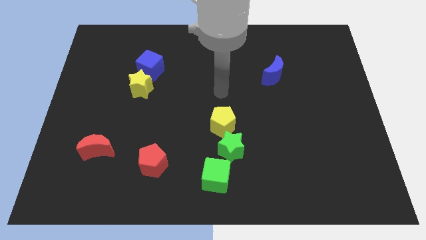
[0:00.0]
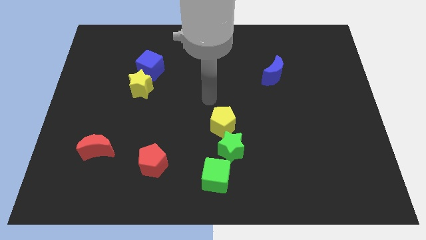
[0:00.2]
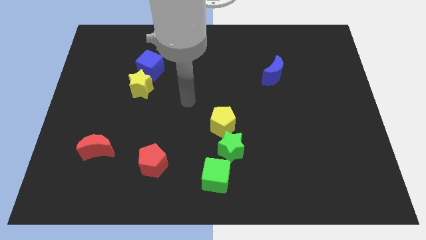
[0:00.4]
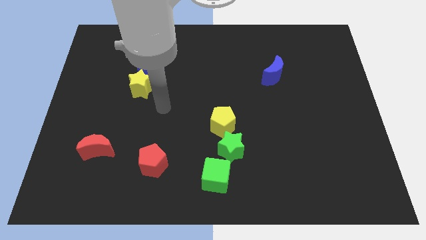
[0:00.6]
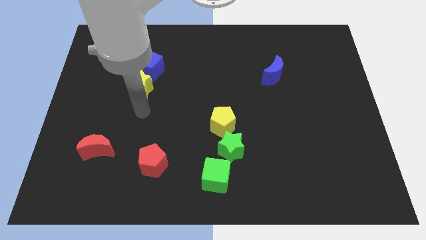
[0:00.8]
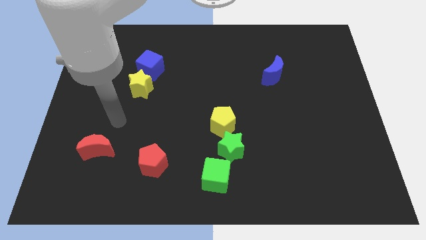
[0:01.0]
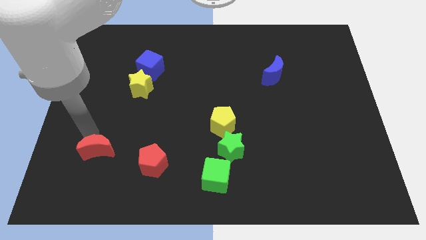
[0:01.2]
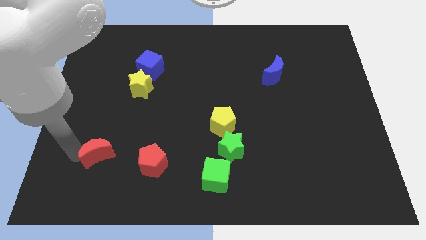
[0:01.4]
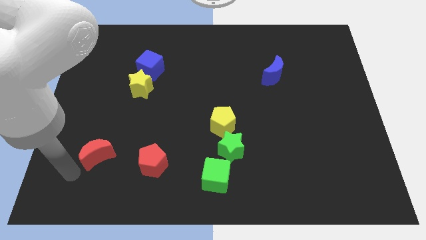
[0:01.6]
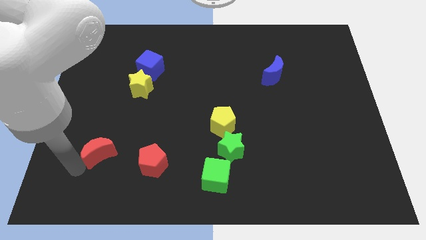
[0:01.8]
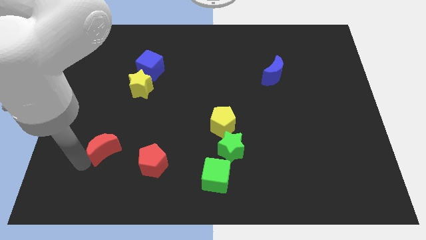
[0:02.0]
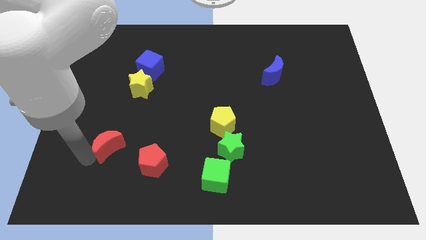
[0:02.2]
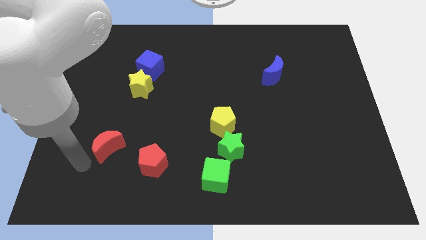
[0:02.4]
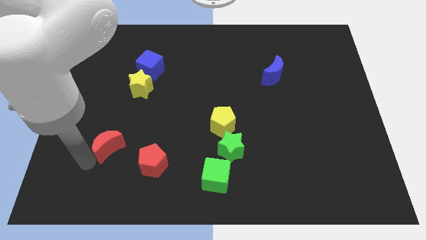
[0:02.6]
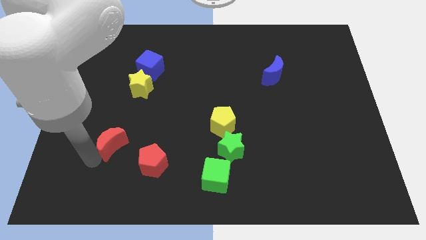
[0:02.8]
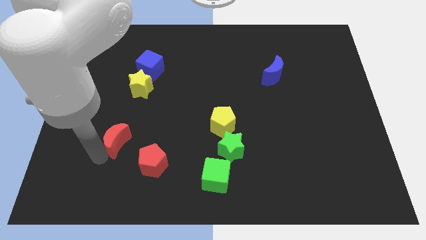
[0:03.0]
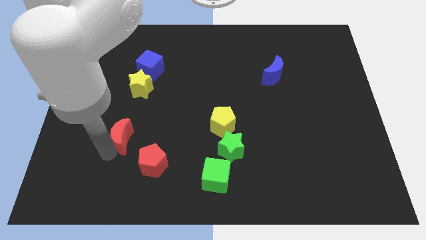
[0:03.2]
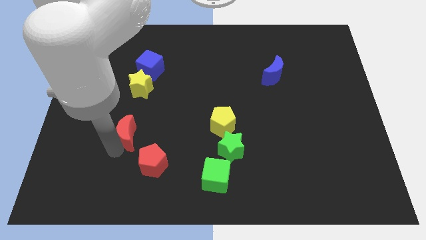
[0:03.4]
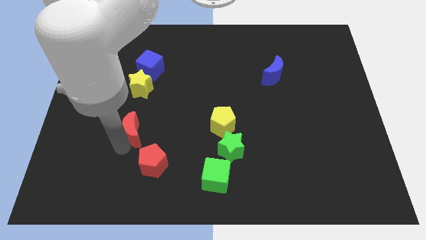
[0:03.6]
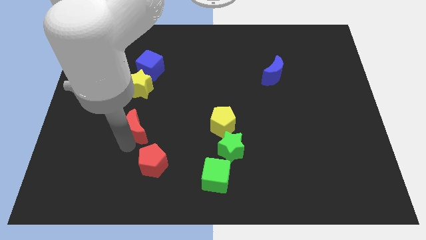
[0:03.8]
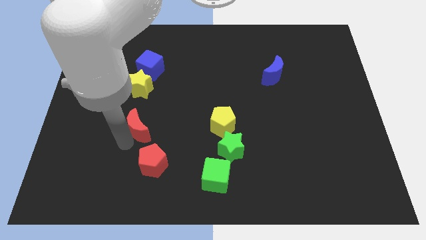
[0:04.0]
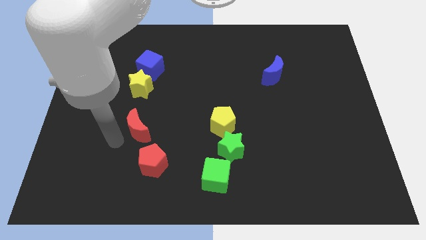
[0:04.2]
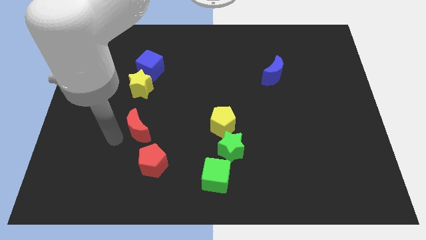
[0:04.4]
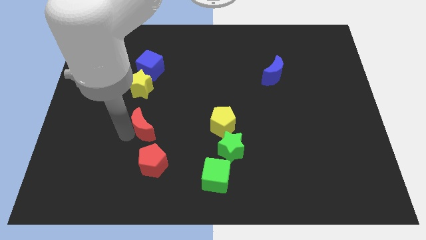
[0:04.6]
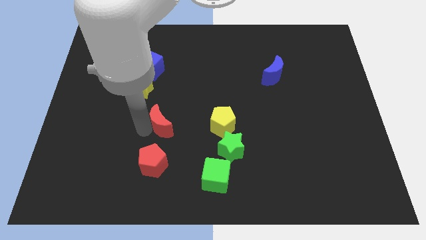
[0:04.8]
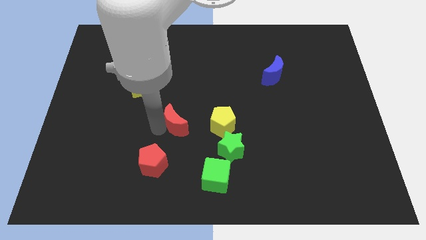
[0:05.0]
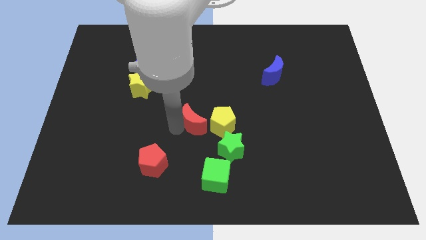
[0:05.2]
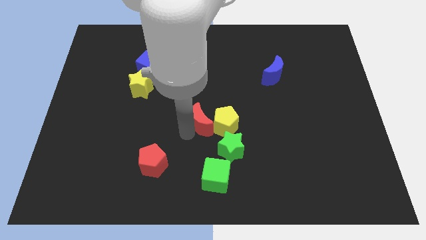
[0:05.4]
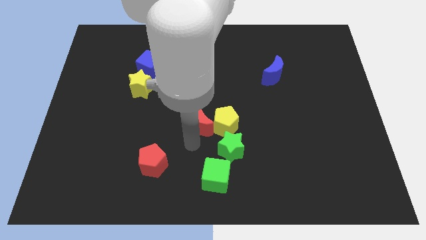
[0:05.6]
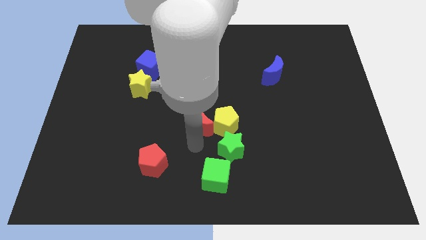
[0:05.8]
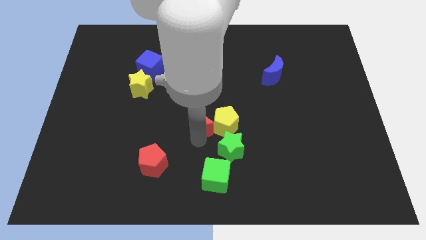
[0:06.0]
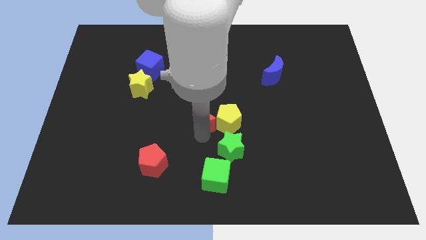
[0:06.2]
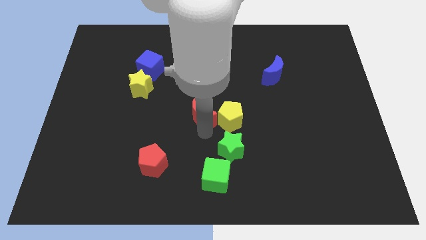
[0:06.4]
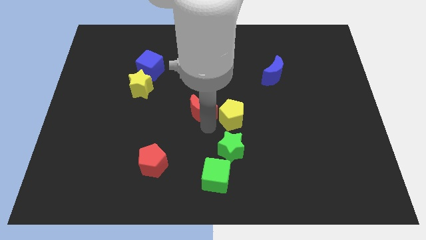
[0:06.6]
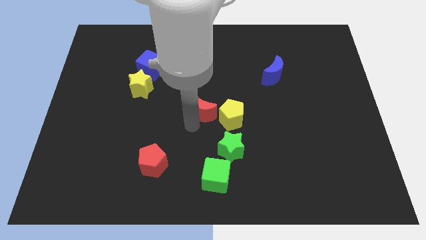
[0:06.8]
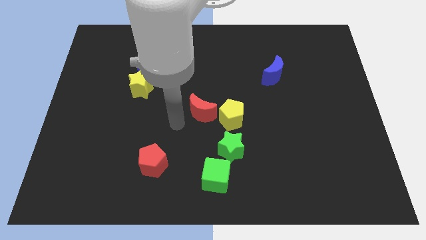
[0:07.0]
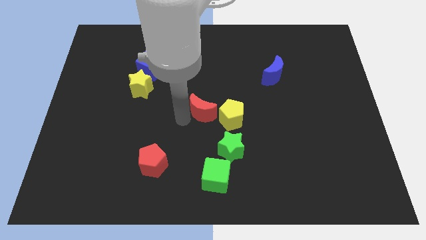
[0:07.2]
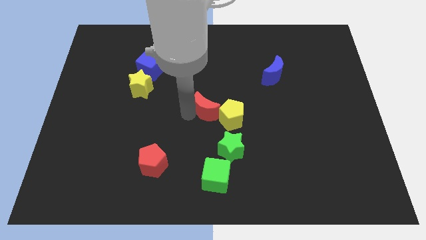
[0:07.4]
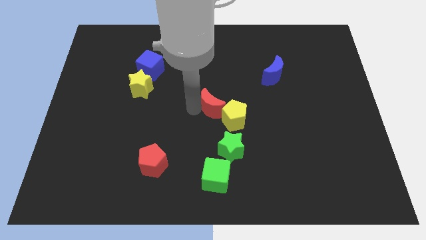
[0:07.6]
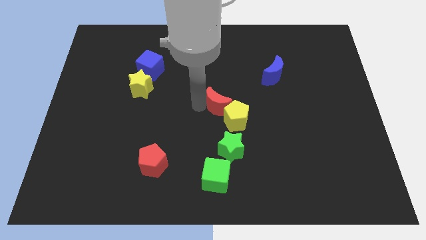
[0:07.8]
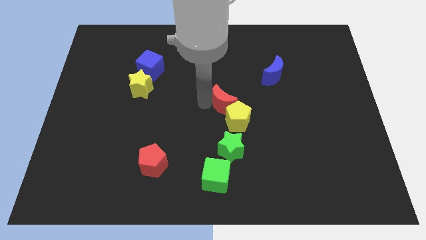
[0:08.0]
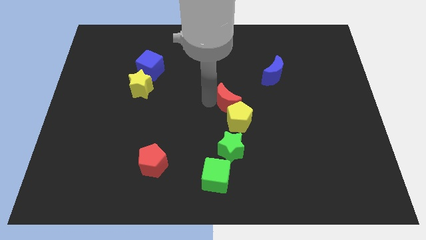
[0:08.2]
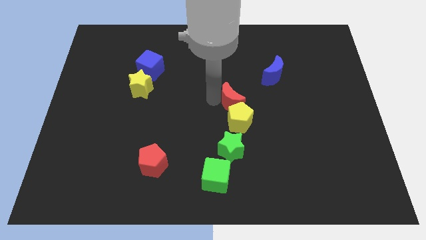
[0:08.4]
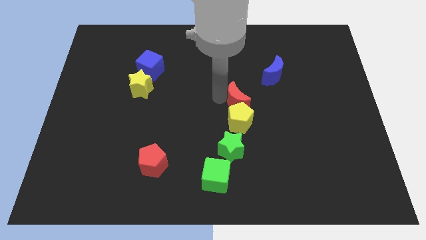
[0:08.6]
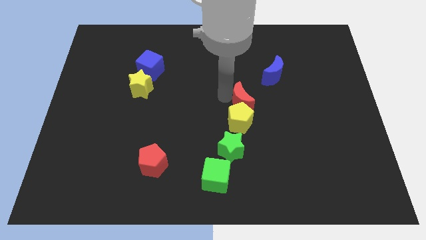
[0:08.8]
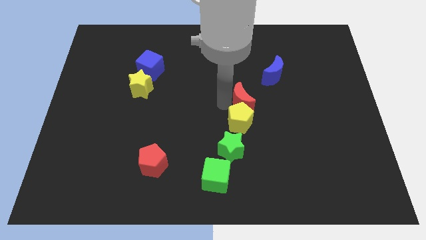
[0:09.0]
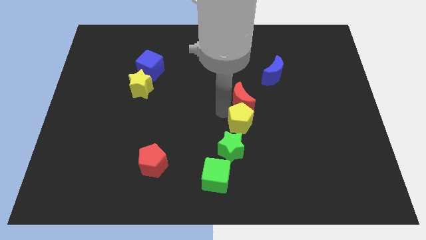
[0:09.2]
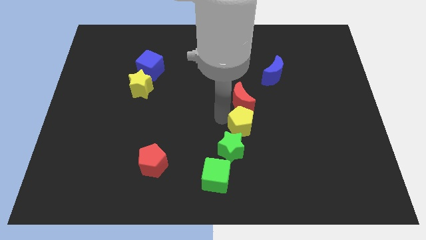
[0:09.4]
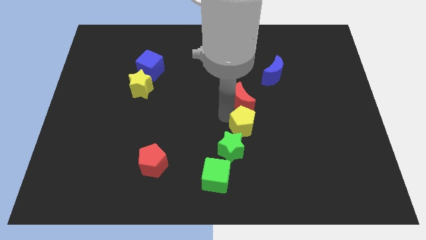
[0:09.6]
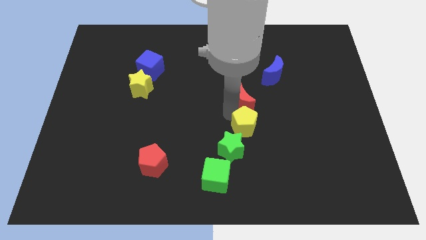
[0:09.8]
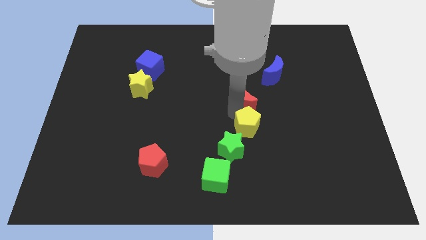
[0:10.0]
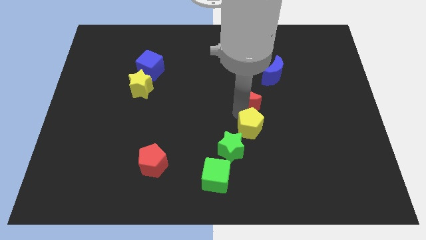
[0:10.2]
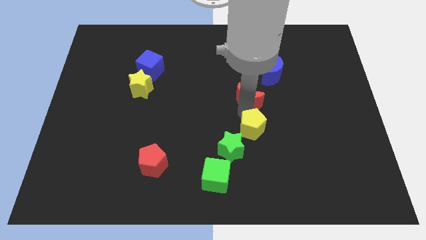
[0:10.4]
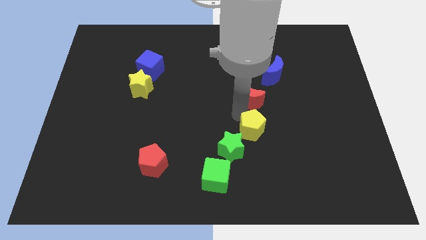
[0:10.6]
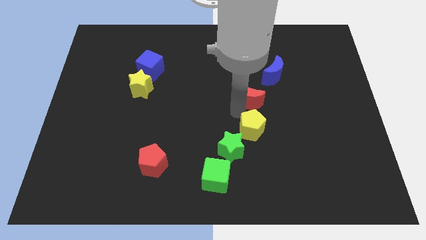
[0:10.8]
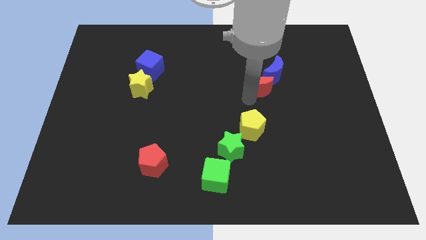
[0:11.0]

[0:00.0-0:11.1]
move the red moon towards the blue moon

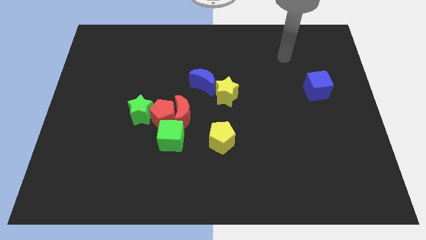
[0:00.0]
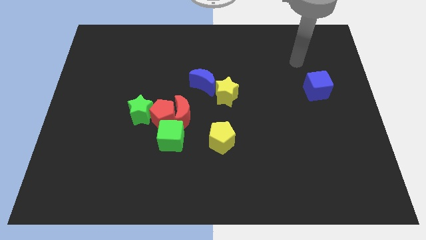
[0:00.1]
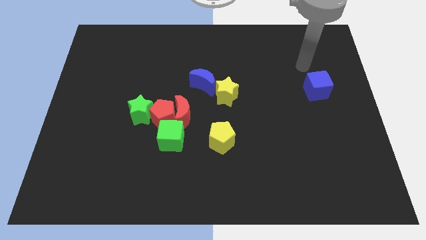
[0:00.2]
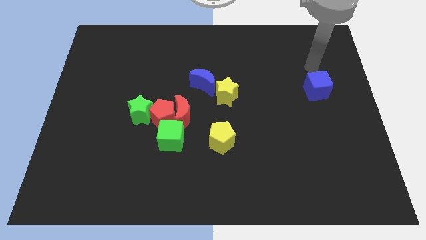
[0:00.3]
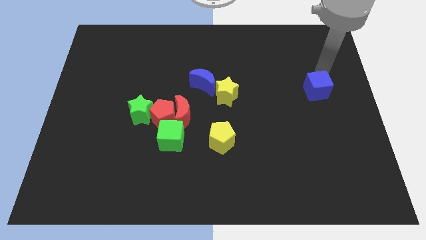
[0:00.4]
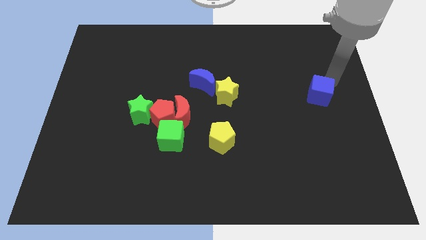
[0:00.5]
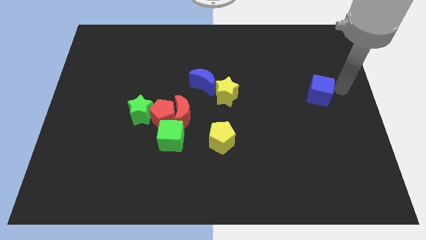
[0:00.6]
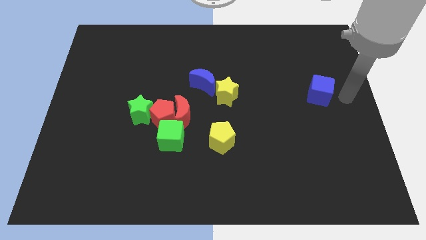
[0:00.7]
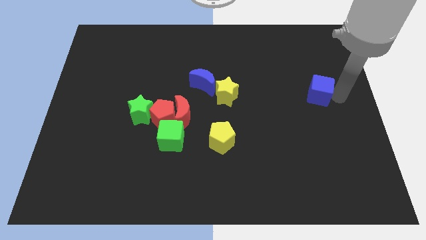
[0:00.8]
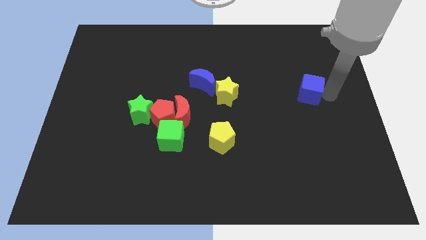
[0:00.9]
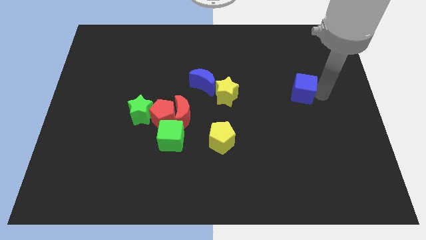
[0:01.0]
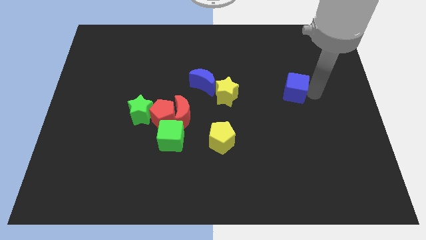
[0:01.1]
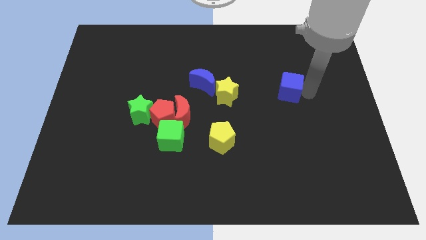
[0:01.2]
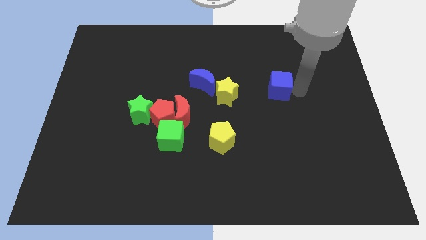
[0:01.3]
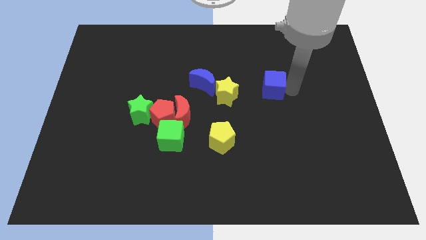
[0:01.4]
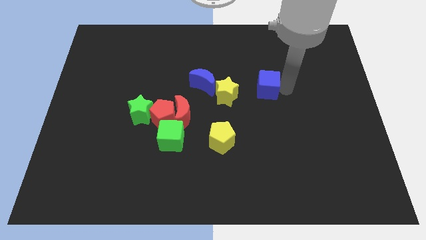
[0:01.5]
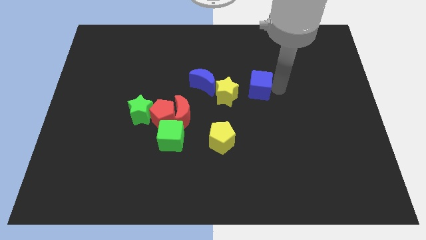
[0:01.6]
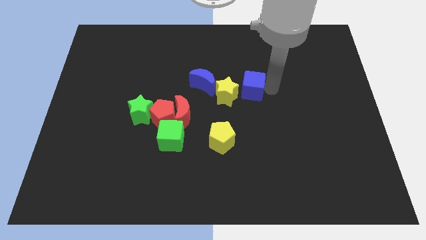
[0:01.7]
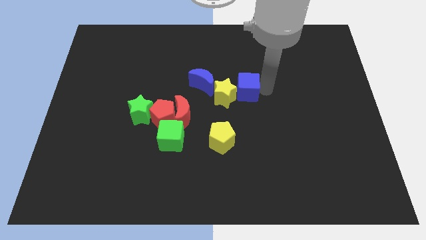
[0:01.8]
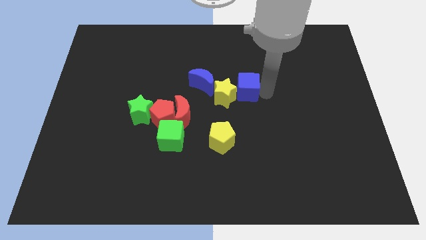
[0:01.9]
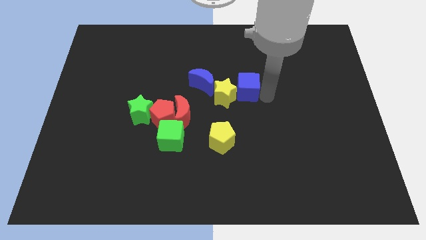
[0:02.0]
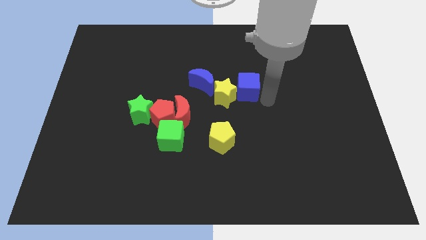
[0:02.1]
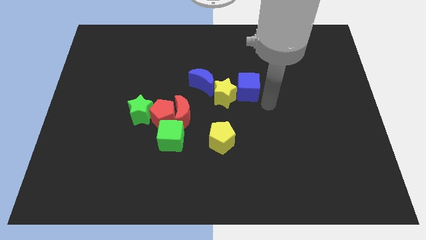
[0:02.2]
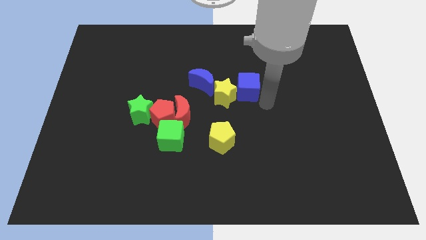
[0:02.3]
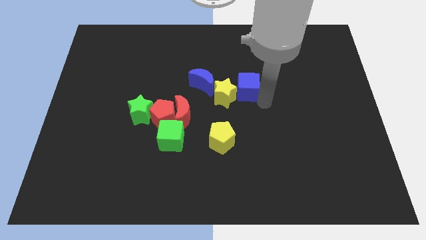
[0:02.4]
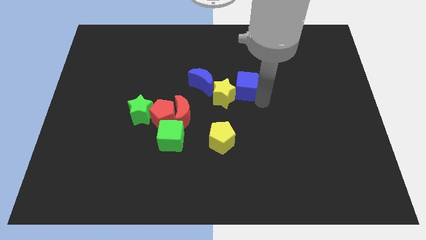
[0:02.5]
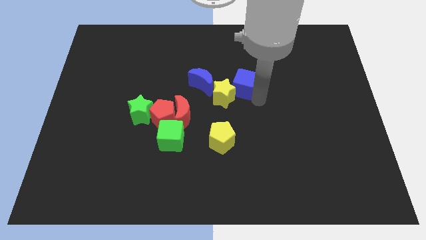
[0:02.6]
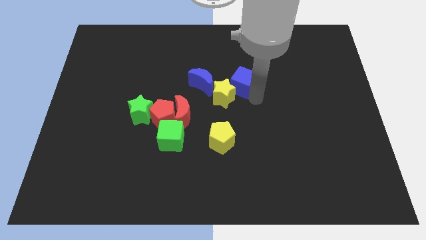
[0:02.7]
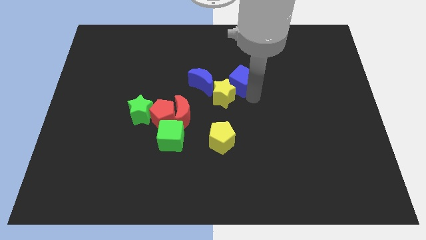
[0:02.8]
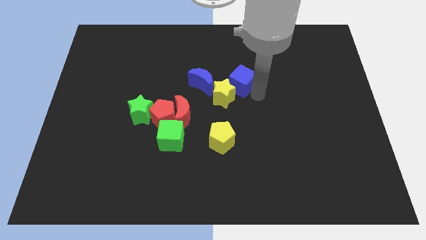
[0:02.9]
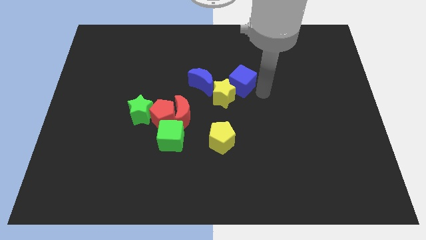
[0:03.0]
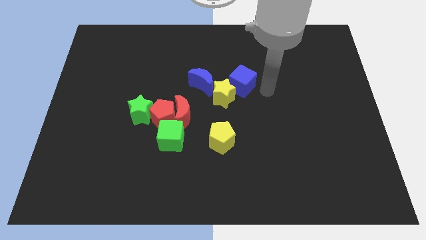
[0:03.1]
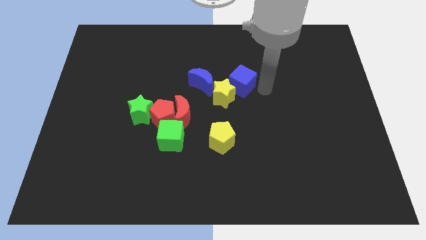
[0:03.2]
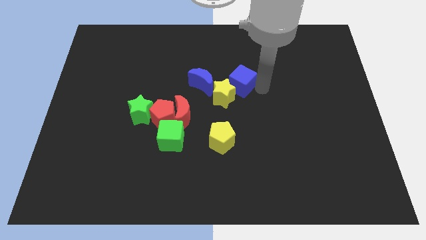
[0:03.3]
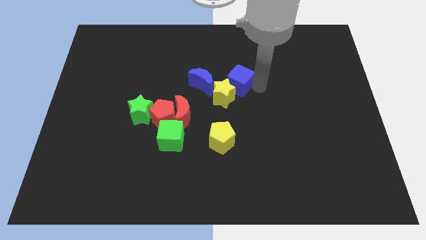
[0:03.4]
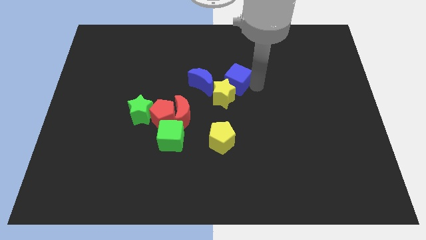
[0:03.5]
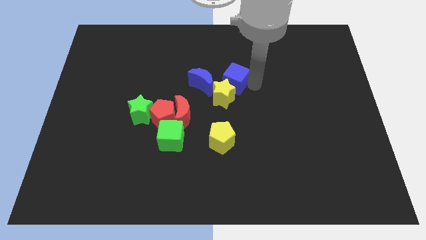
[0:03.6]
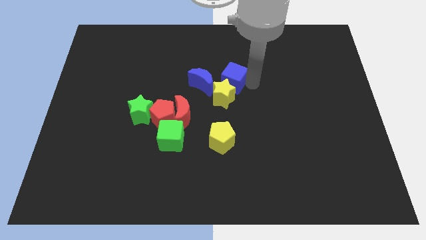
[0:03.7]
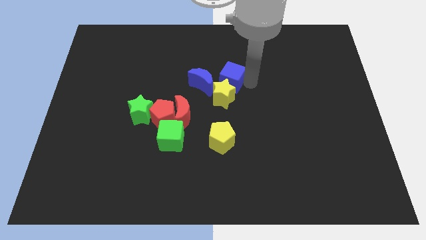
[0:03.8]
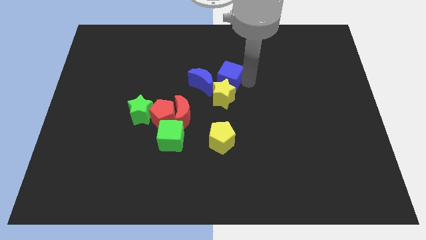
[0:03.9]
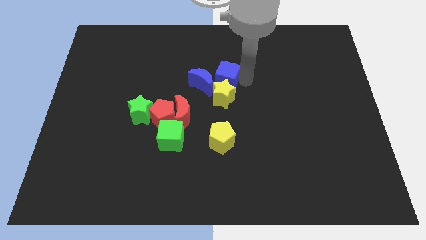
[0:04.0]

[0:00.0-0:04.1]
move the blue cube towards the blue moon
